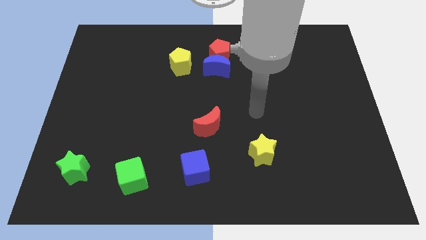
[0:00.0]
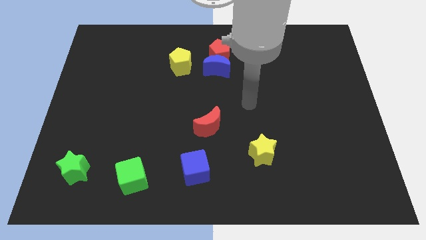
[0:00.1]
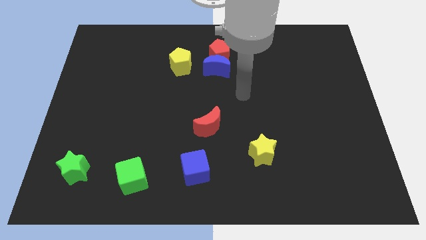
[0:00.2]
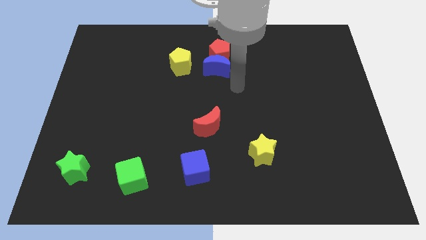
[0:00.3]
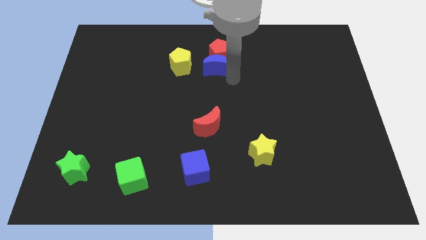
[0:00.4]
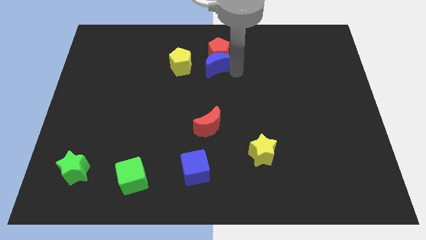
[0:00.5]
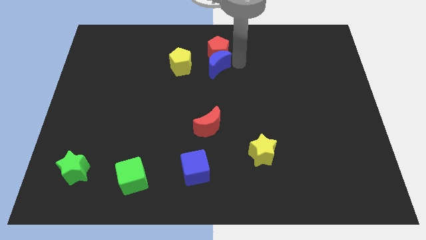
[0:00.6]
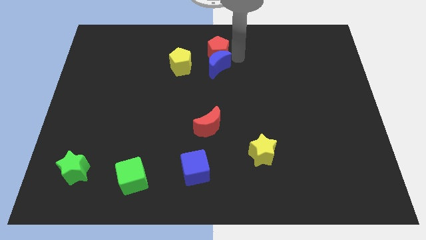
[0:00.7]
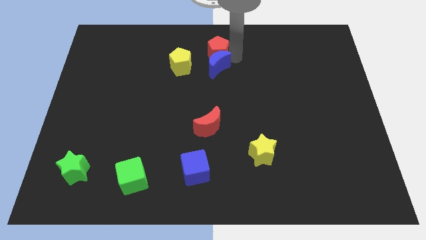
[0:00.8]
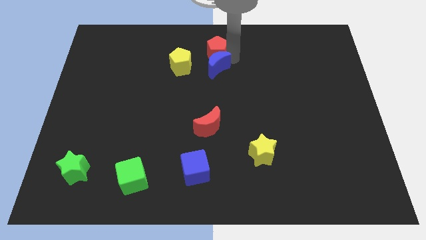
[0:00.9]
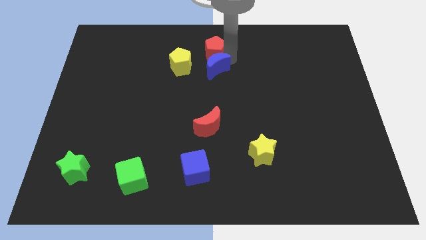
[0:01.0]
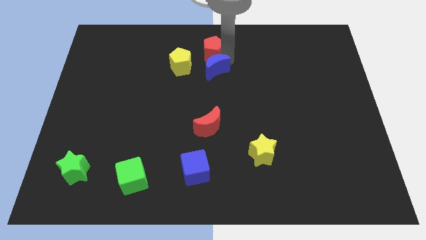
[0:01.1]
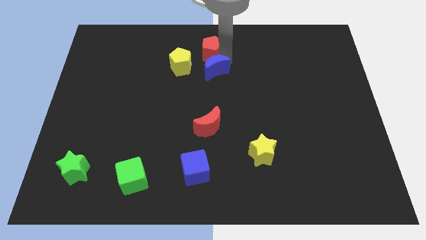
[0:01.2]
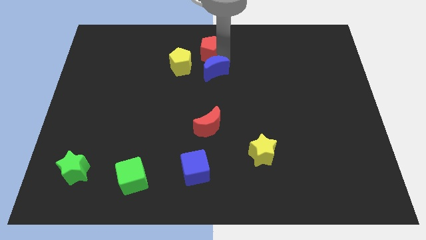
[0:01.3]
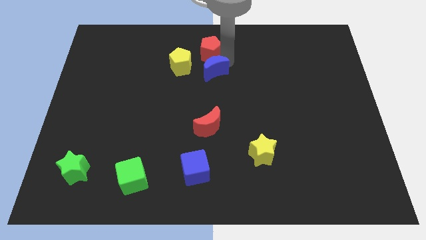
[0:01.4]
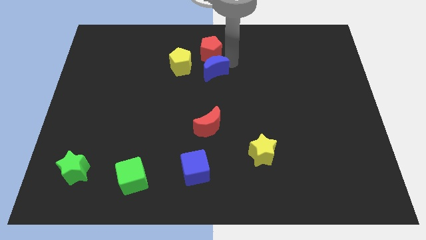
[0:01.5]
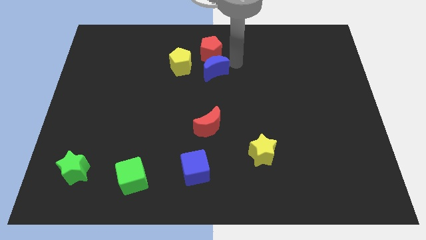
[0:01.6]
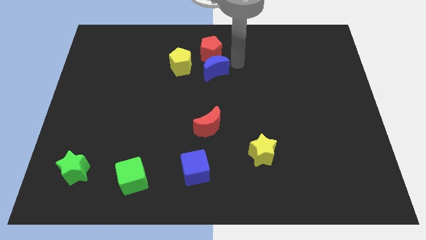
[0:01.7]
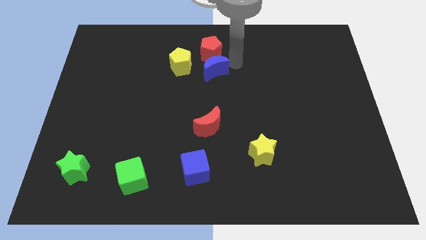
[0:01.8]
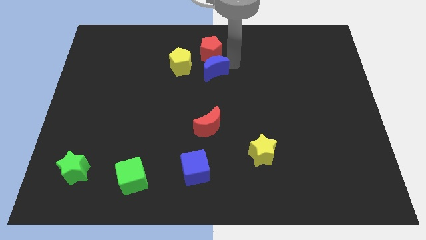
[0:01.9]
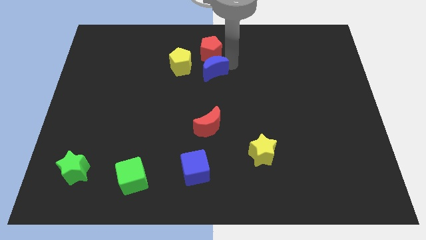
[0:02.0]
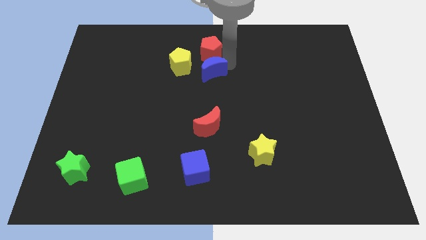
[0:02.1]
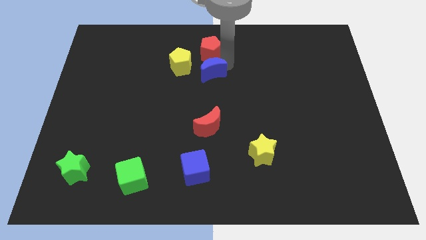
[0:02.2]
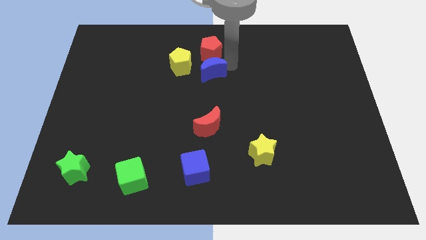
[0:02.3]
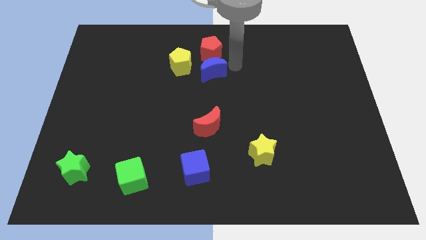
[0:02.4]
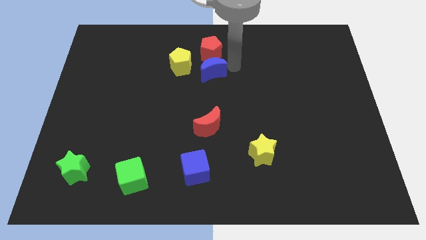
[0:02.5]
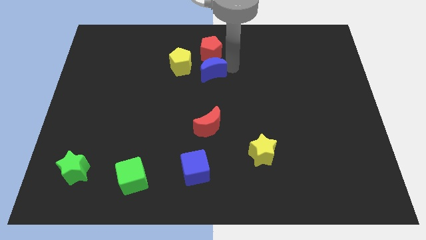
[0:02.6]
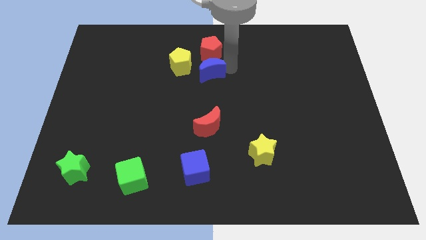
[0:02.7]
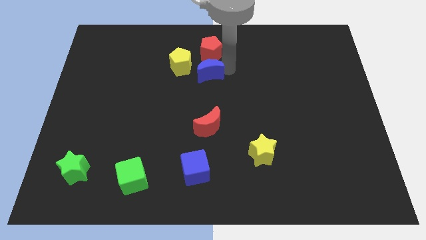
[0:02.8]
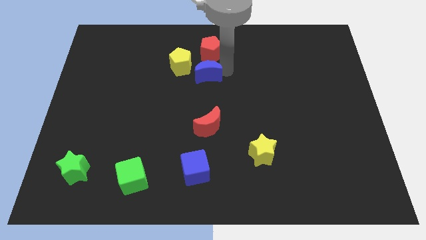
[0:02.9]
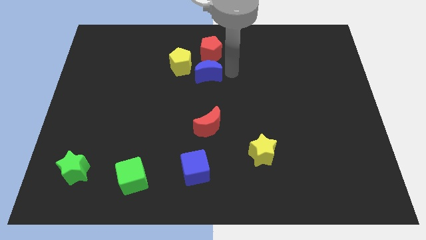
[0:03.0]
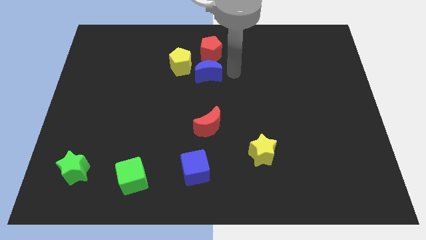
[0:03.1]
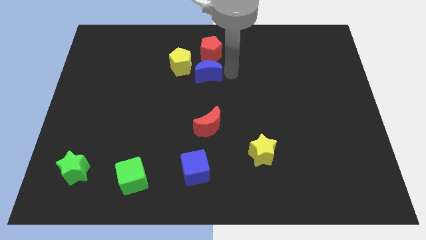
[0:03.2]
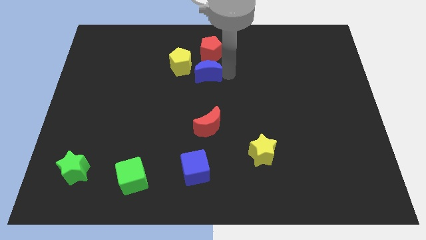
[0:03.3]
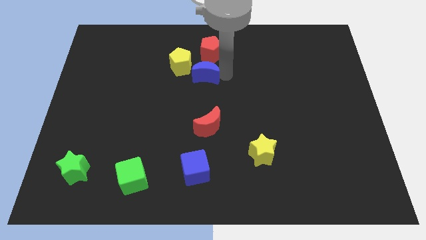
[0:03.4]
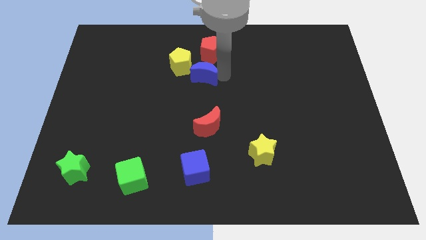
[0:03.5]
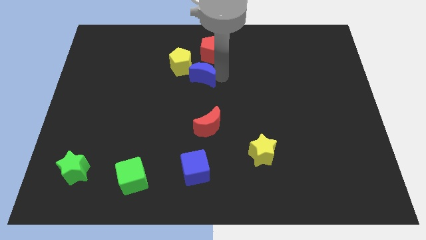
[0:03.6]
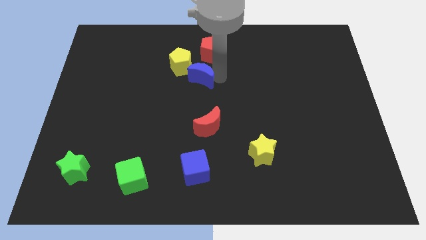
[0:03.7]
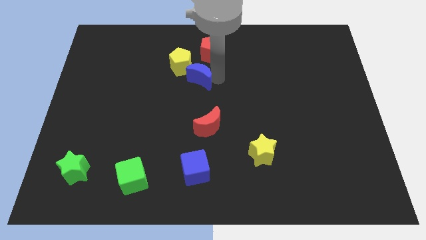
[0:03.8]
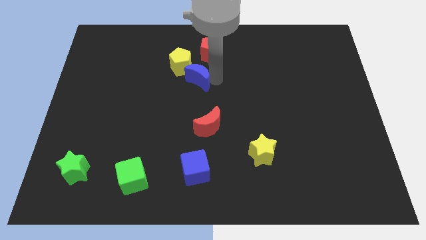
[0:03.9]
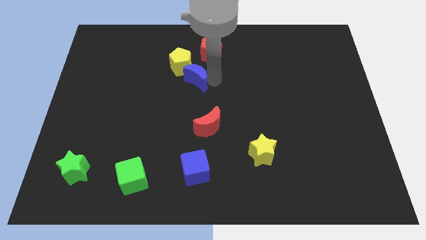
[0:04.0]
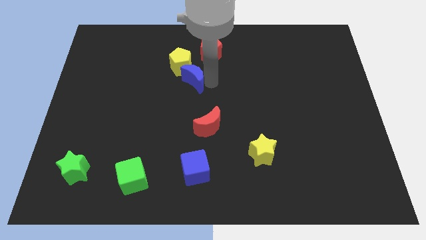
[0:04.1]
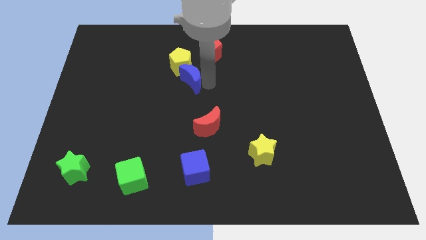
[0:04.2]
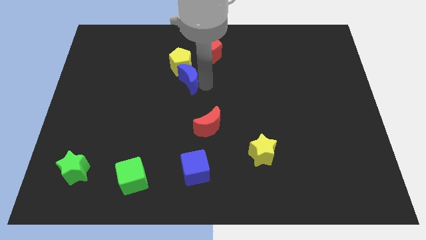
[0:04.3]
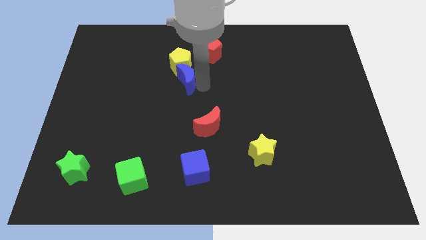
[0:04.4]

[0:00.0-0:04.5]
push the blue moon left a little bit

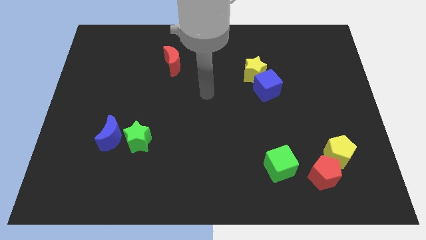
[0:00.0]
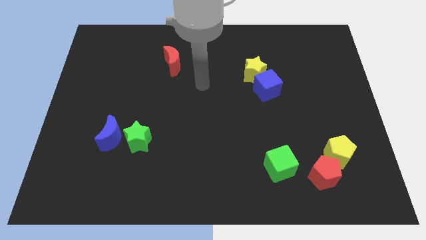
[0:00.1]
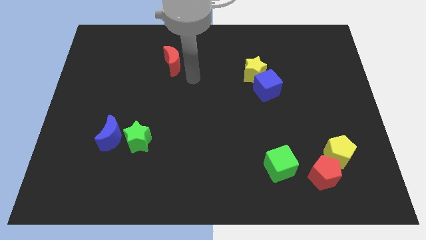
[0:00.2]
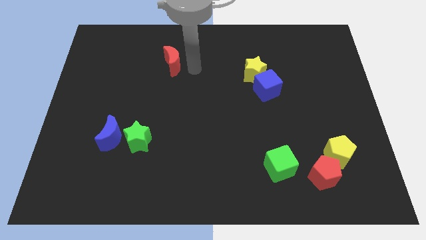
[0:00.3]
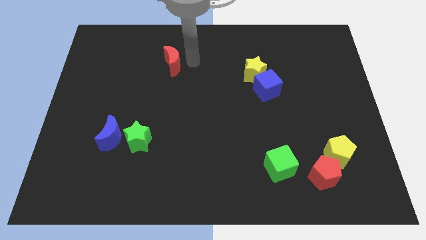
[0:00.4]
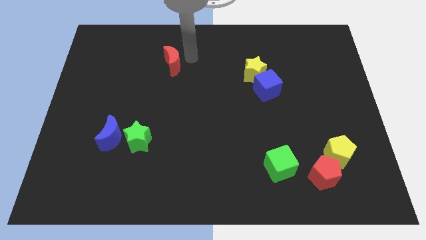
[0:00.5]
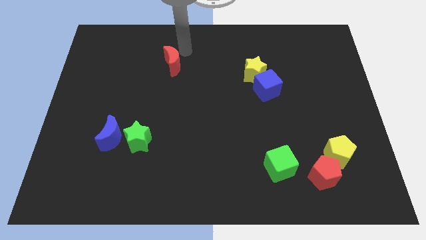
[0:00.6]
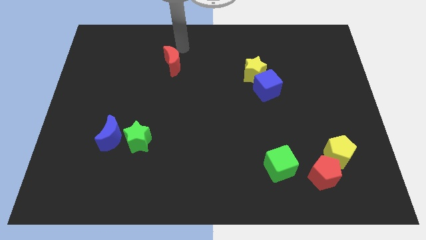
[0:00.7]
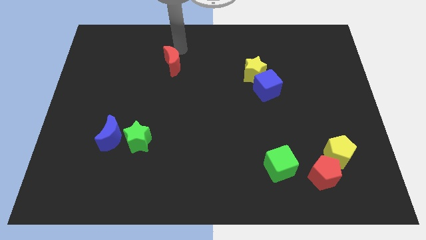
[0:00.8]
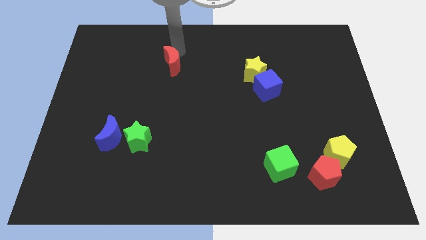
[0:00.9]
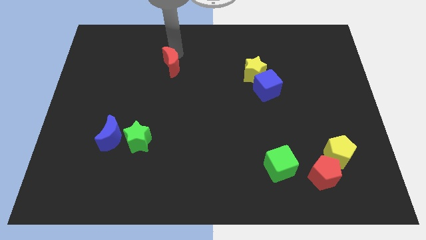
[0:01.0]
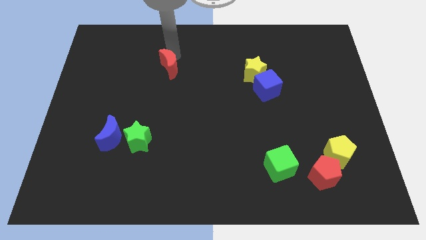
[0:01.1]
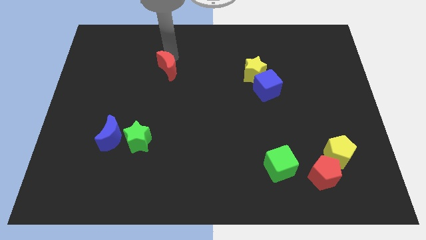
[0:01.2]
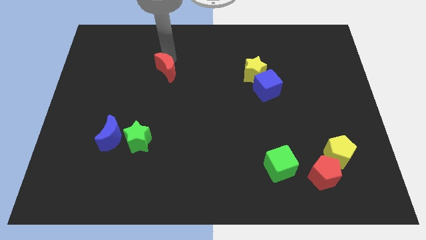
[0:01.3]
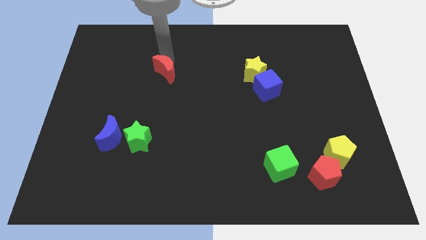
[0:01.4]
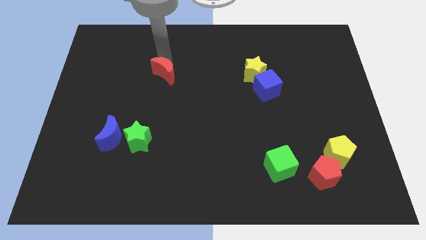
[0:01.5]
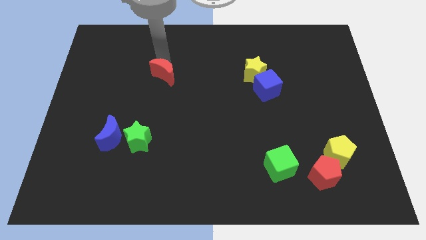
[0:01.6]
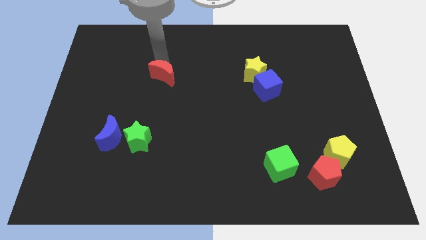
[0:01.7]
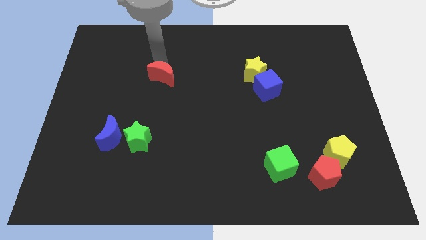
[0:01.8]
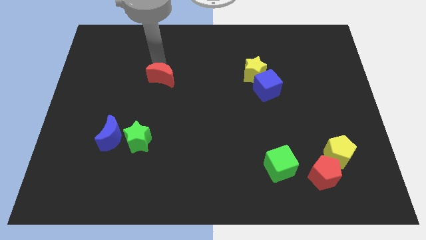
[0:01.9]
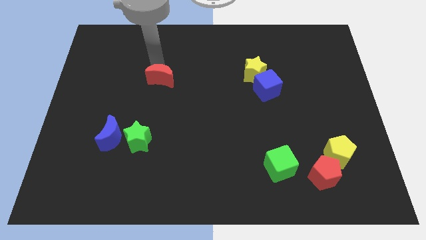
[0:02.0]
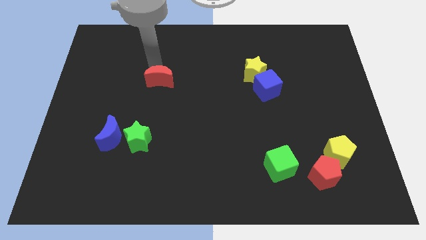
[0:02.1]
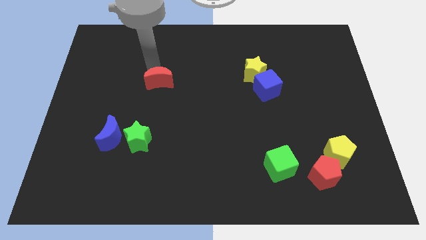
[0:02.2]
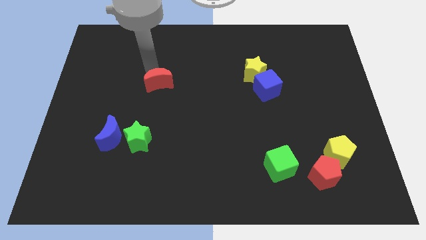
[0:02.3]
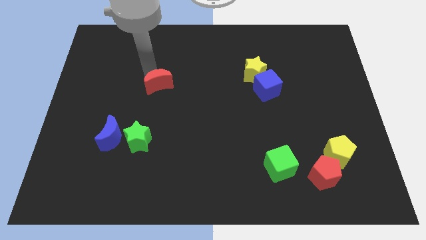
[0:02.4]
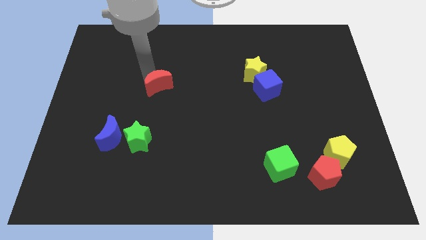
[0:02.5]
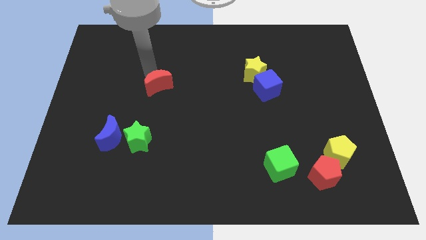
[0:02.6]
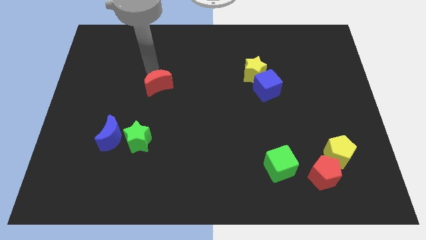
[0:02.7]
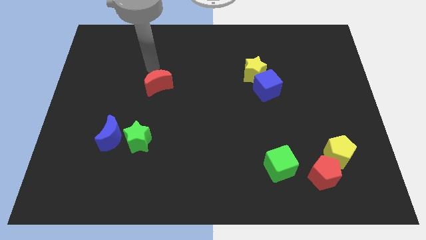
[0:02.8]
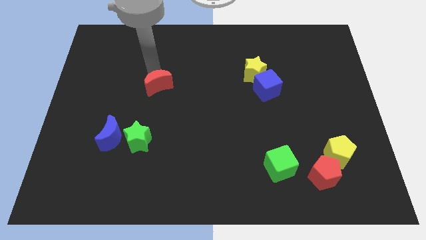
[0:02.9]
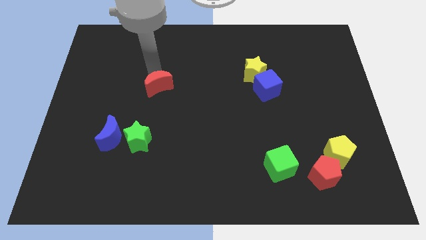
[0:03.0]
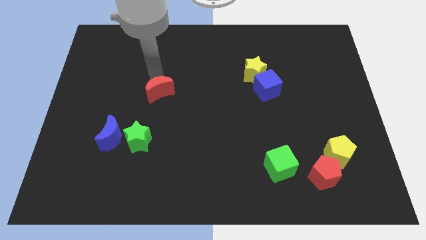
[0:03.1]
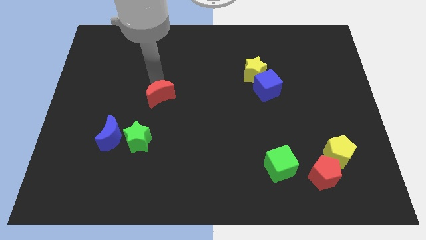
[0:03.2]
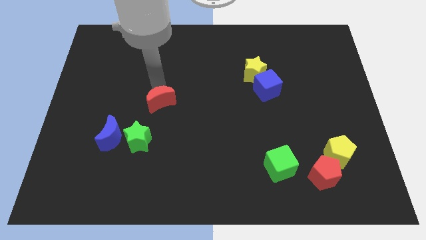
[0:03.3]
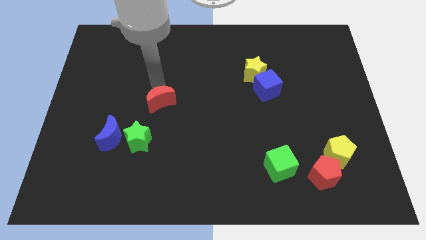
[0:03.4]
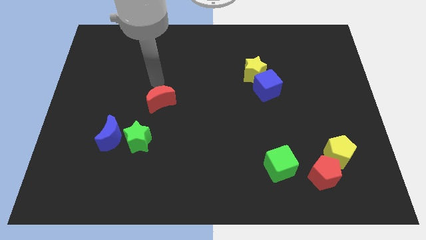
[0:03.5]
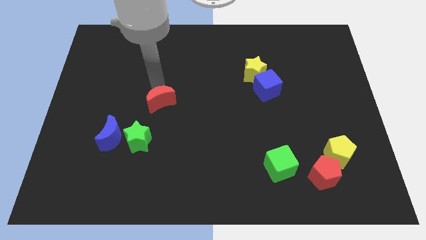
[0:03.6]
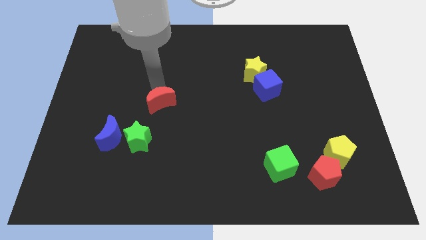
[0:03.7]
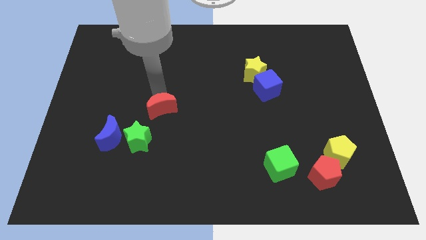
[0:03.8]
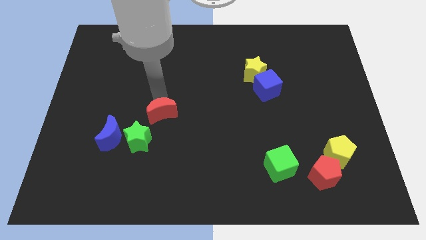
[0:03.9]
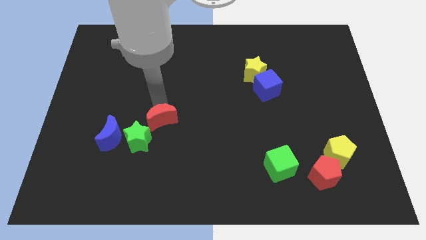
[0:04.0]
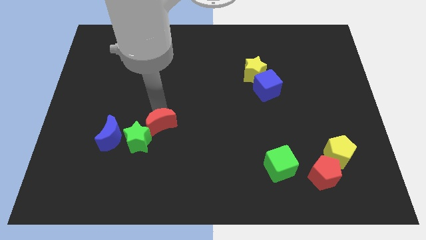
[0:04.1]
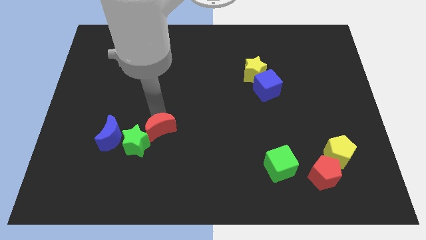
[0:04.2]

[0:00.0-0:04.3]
move the red moon down
